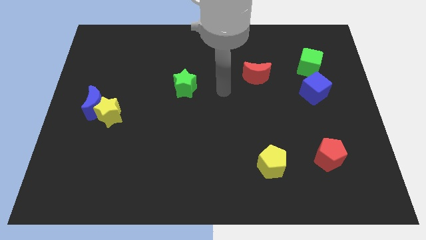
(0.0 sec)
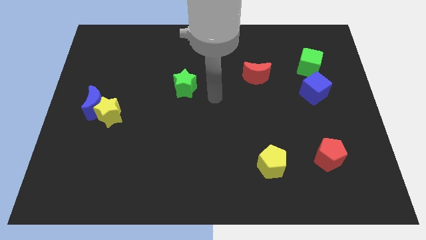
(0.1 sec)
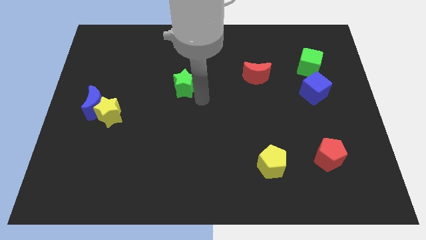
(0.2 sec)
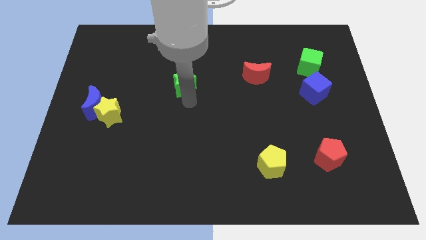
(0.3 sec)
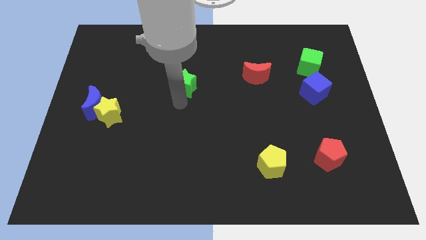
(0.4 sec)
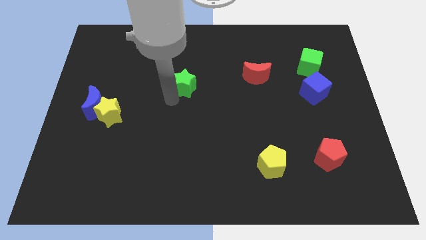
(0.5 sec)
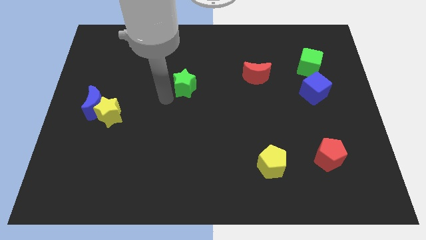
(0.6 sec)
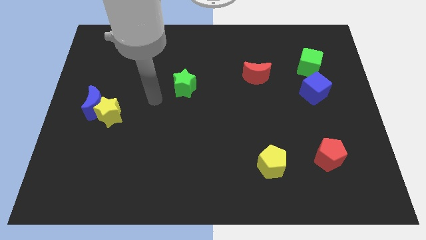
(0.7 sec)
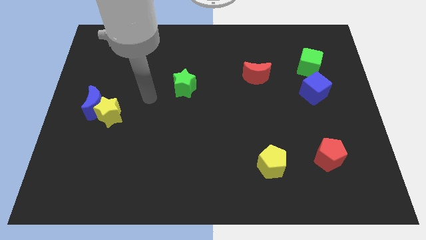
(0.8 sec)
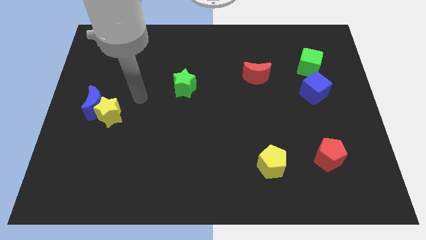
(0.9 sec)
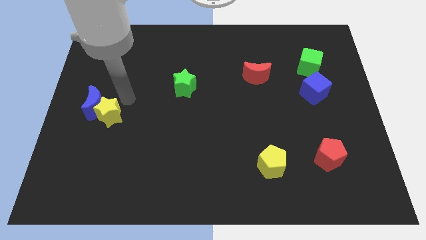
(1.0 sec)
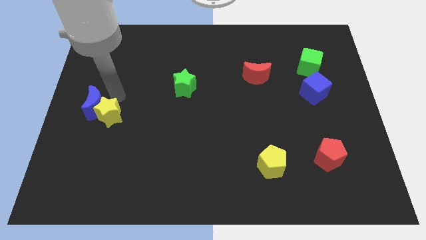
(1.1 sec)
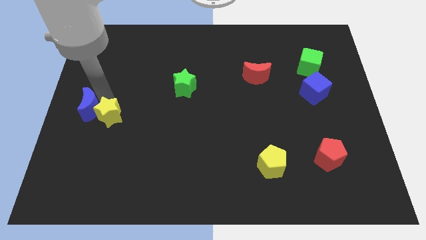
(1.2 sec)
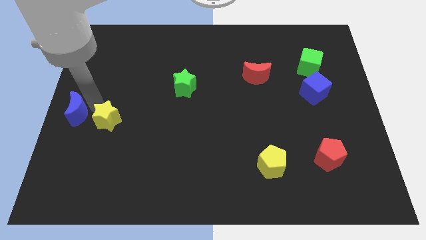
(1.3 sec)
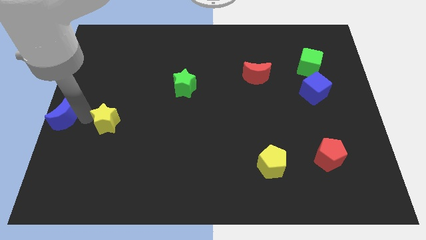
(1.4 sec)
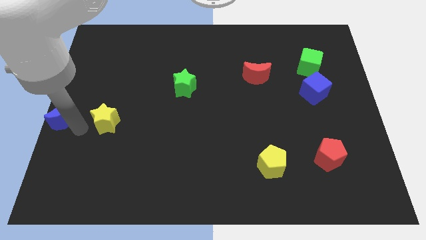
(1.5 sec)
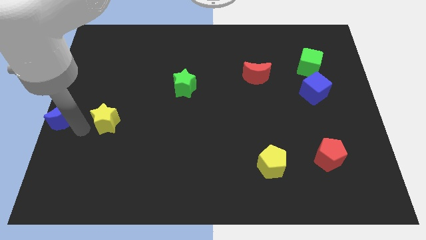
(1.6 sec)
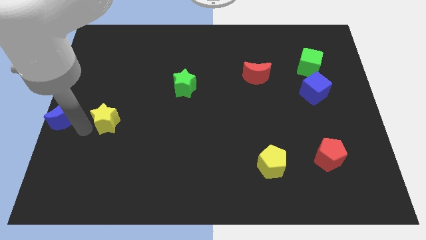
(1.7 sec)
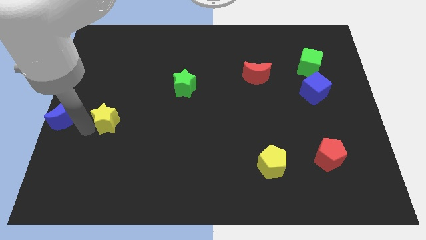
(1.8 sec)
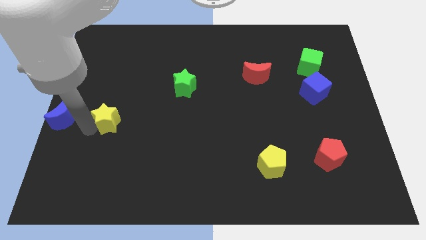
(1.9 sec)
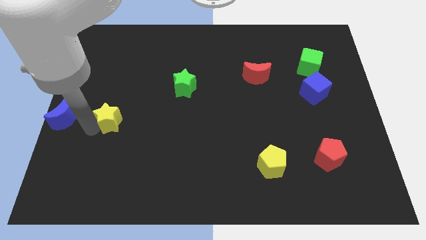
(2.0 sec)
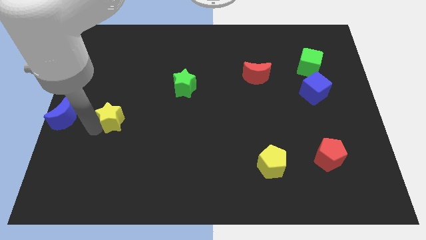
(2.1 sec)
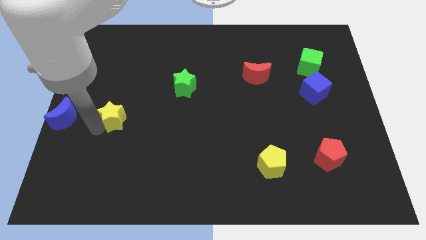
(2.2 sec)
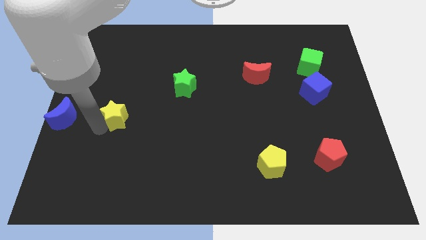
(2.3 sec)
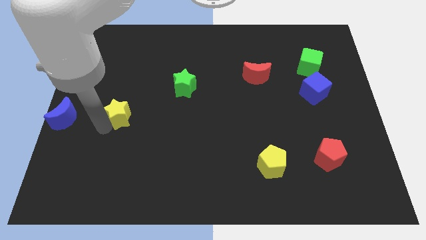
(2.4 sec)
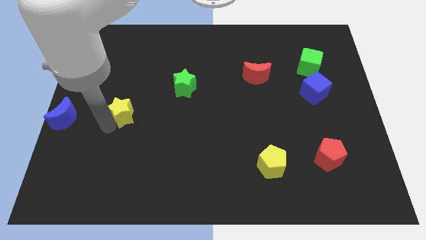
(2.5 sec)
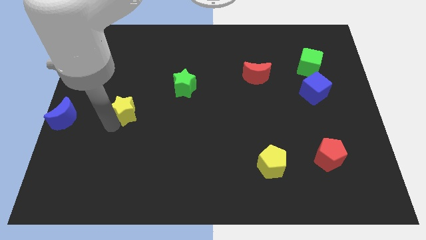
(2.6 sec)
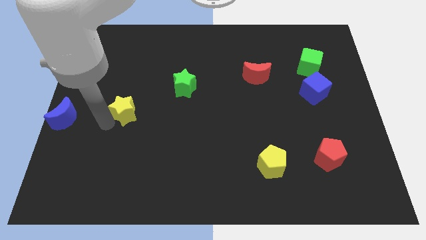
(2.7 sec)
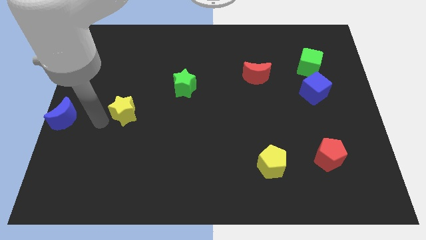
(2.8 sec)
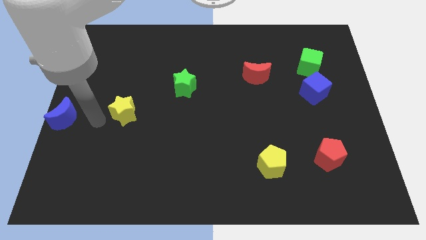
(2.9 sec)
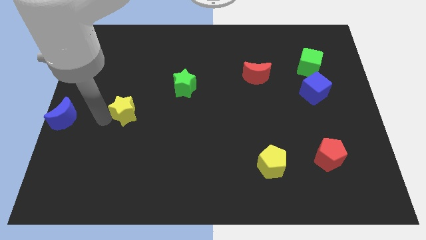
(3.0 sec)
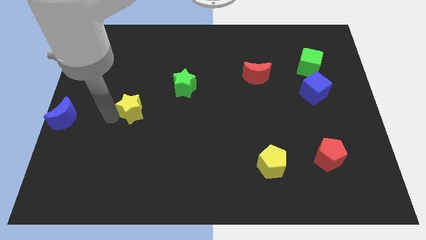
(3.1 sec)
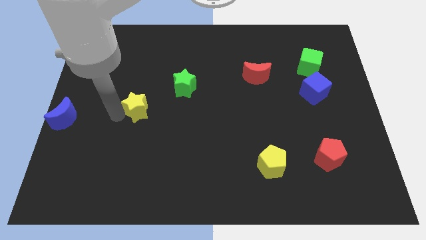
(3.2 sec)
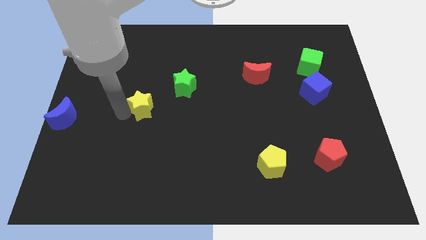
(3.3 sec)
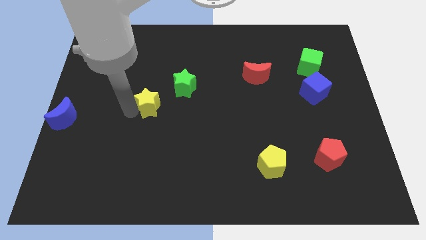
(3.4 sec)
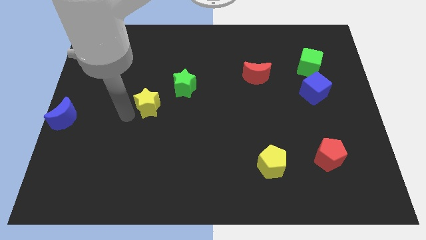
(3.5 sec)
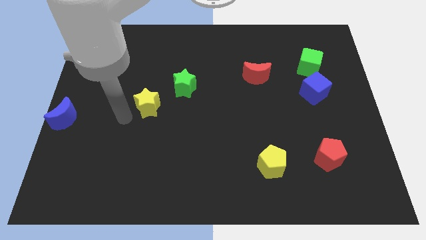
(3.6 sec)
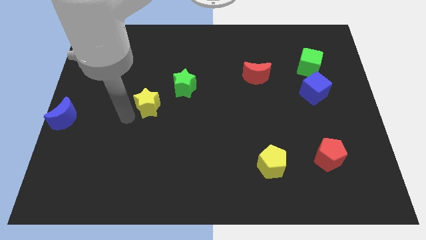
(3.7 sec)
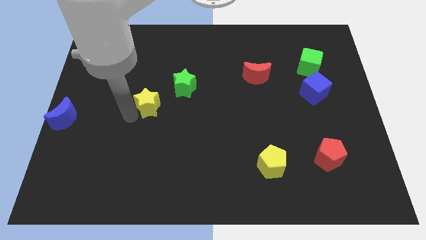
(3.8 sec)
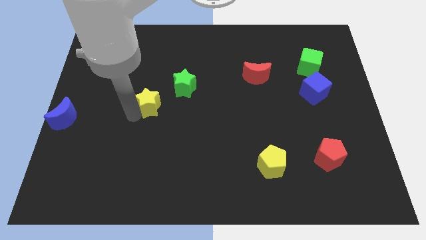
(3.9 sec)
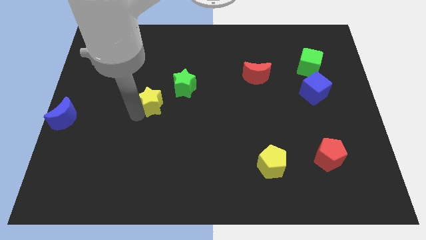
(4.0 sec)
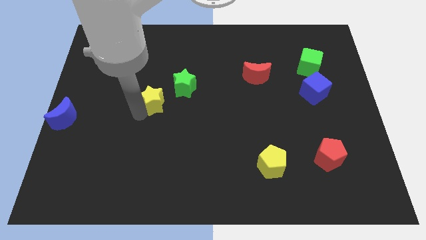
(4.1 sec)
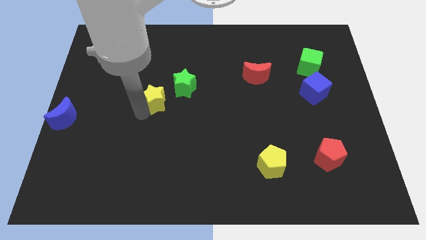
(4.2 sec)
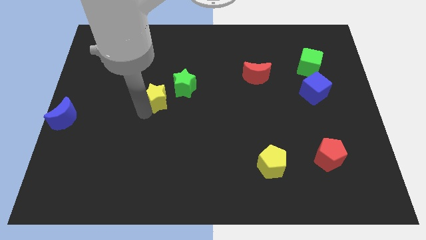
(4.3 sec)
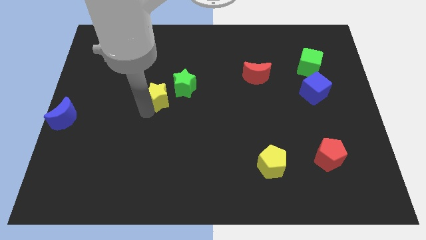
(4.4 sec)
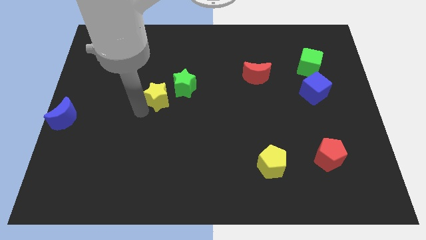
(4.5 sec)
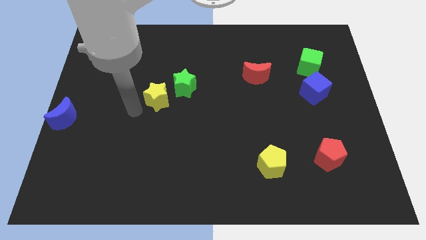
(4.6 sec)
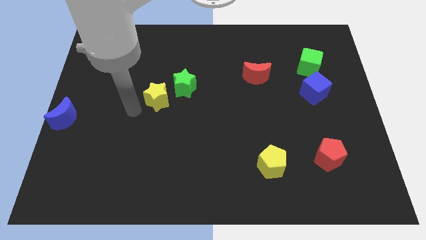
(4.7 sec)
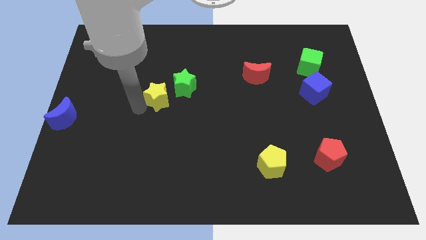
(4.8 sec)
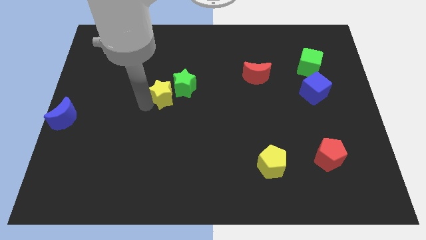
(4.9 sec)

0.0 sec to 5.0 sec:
slide the yellow star close to the green star

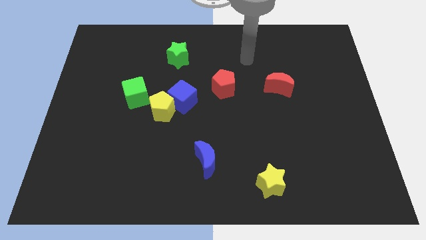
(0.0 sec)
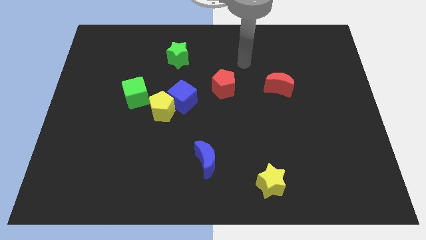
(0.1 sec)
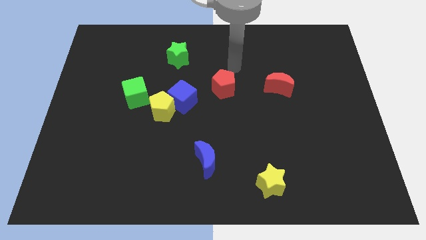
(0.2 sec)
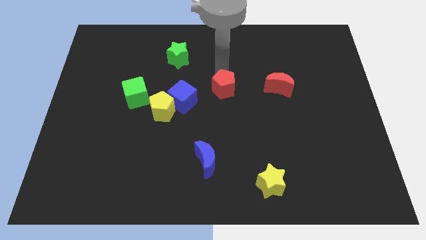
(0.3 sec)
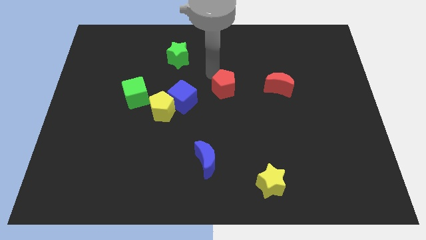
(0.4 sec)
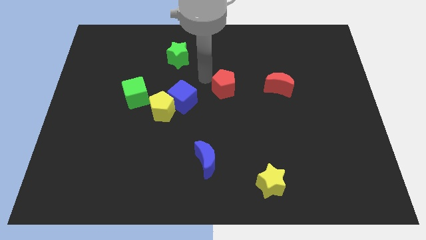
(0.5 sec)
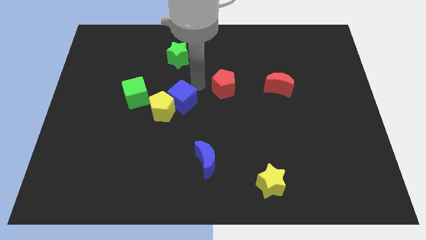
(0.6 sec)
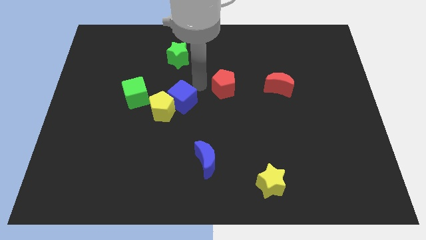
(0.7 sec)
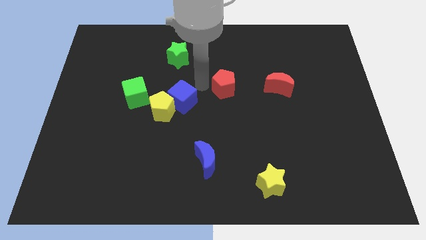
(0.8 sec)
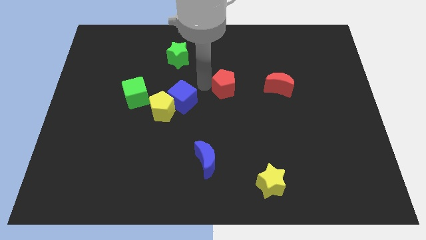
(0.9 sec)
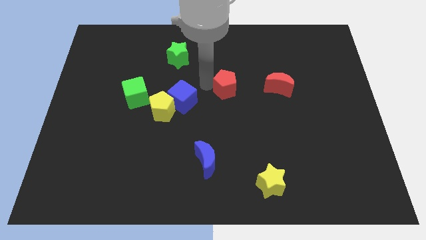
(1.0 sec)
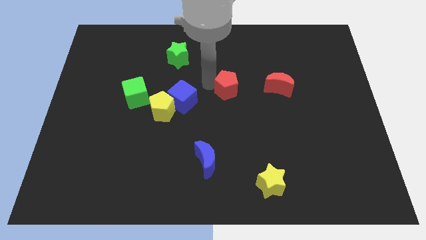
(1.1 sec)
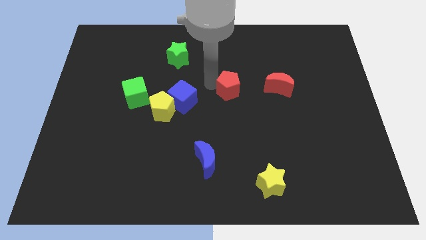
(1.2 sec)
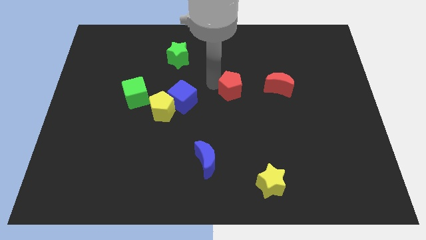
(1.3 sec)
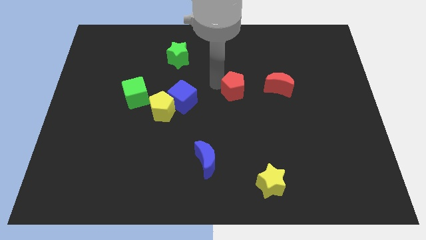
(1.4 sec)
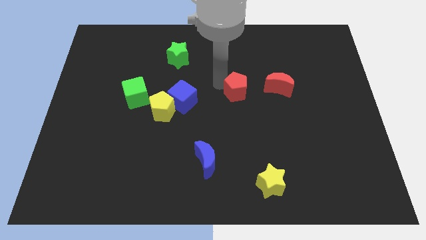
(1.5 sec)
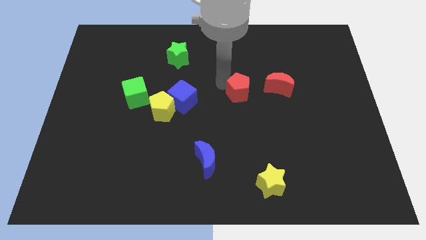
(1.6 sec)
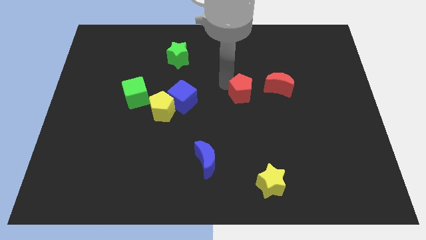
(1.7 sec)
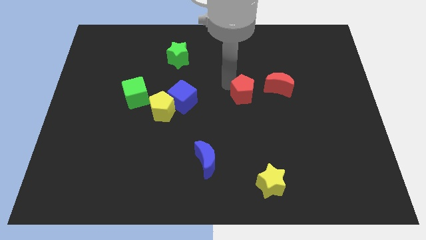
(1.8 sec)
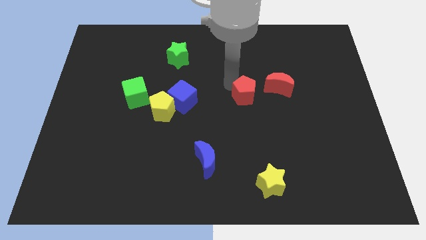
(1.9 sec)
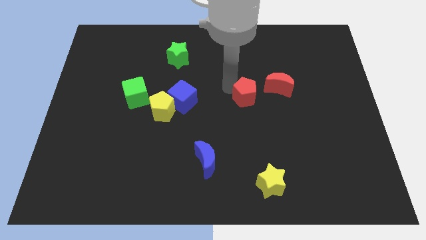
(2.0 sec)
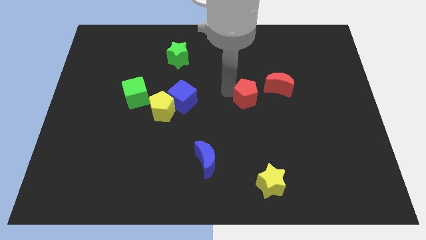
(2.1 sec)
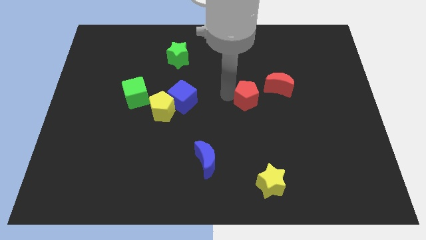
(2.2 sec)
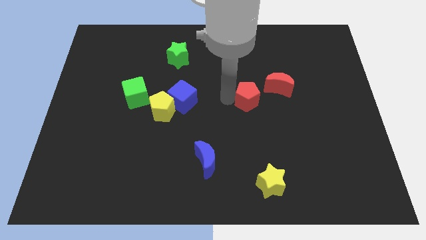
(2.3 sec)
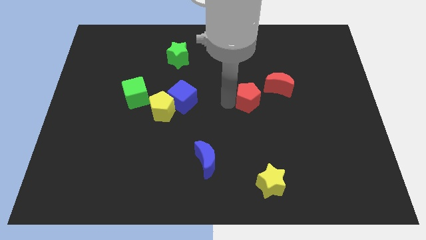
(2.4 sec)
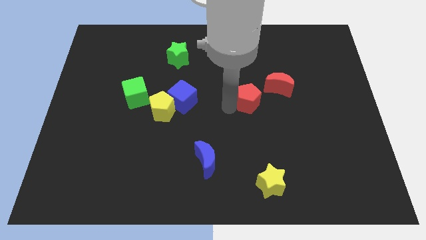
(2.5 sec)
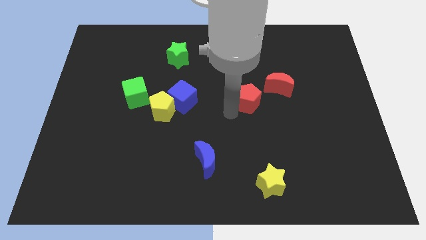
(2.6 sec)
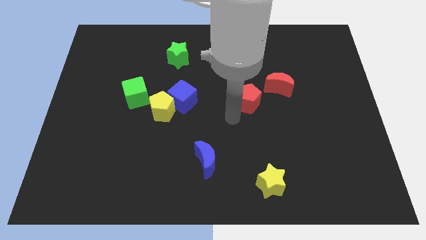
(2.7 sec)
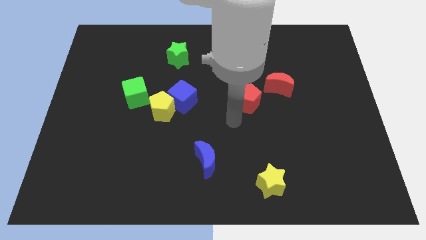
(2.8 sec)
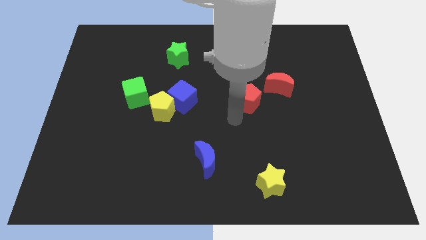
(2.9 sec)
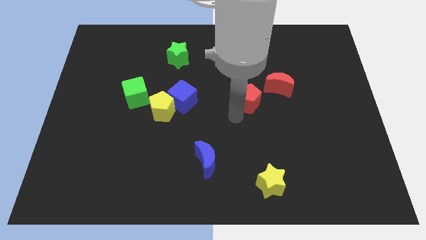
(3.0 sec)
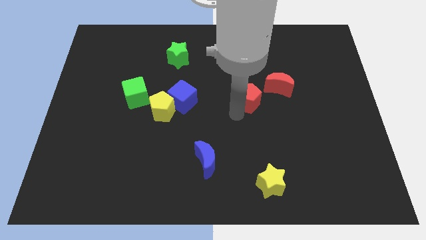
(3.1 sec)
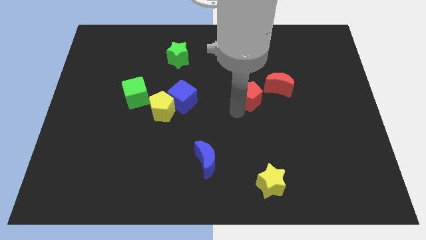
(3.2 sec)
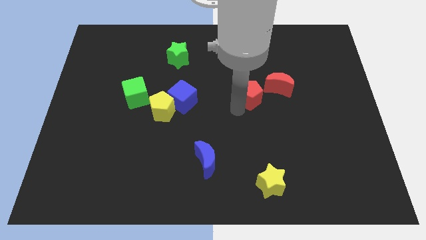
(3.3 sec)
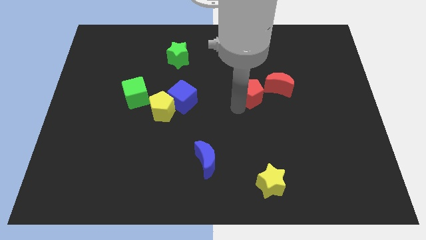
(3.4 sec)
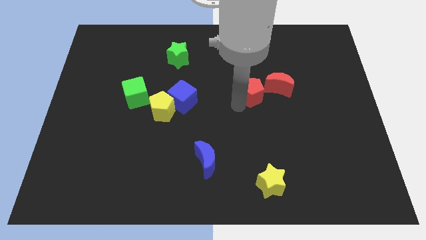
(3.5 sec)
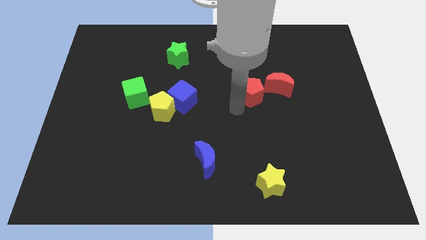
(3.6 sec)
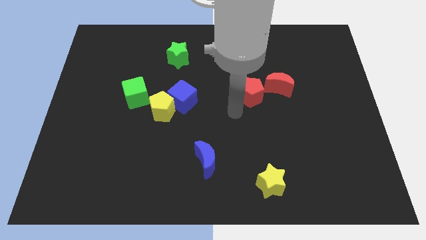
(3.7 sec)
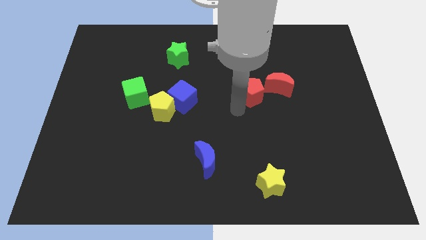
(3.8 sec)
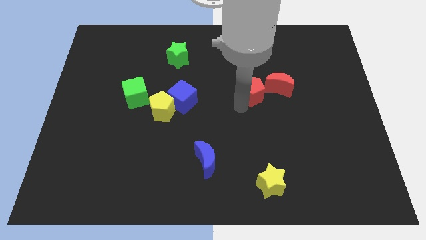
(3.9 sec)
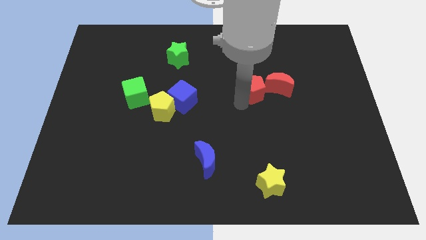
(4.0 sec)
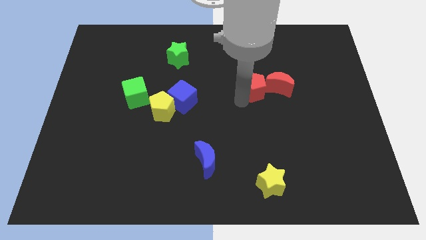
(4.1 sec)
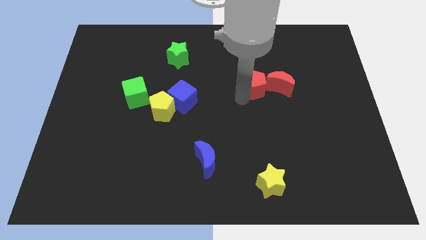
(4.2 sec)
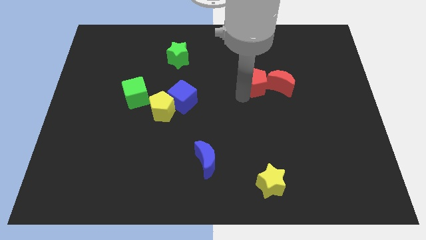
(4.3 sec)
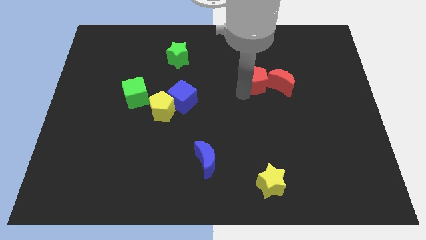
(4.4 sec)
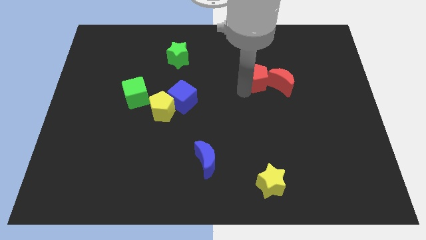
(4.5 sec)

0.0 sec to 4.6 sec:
push the red pentagon next to the red moon
